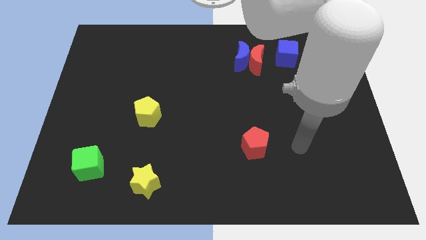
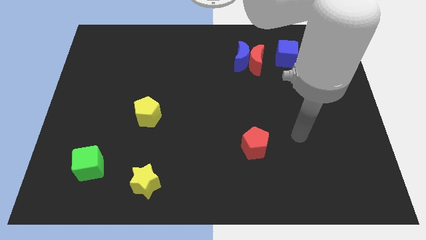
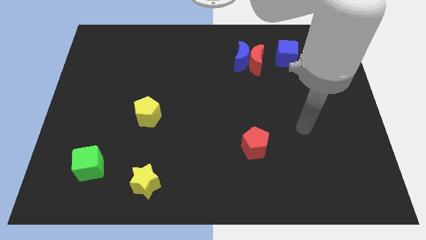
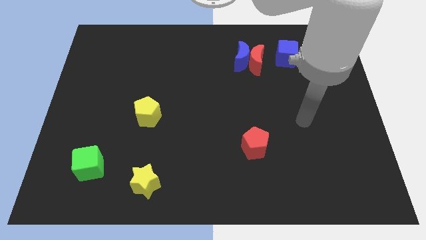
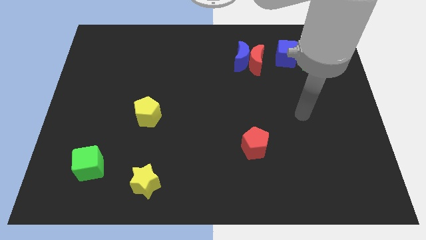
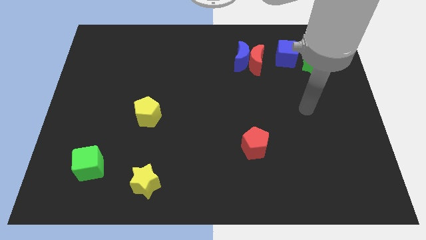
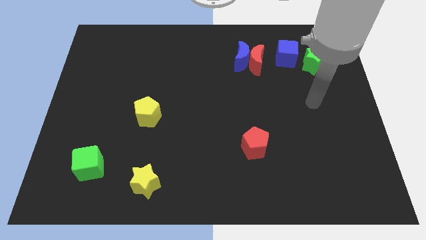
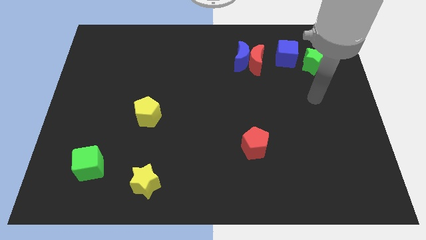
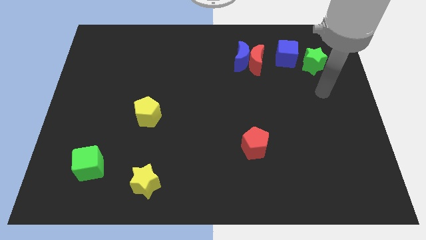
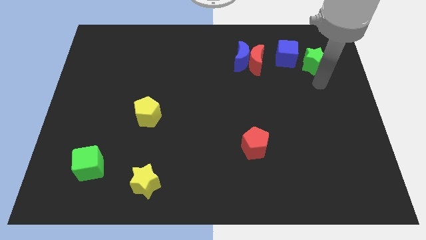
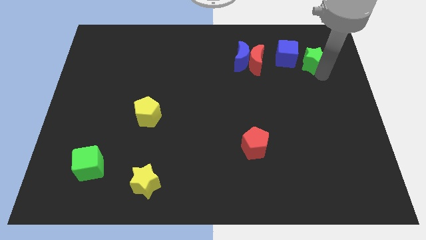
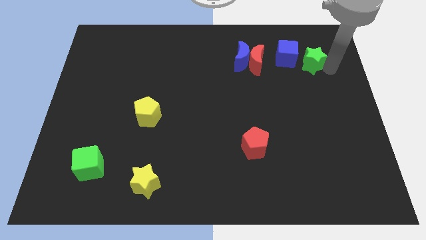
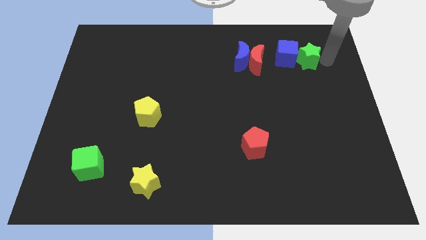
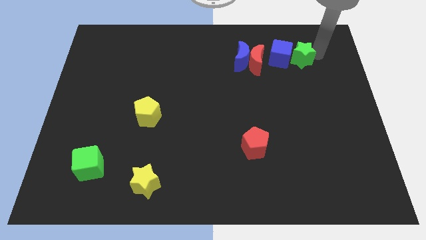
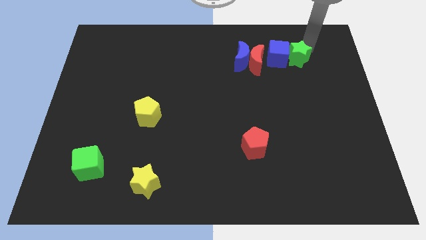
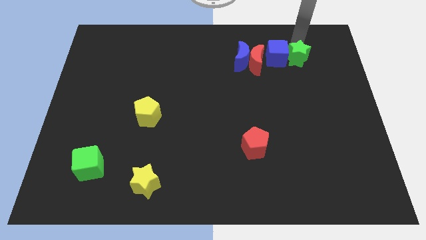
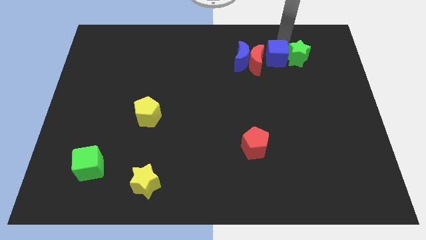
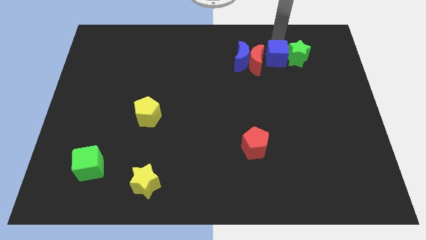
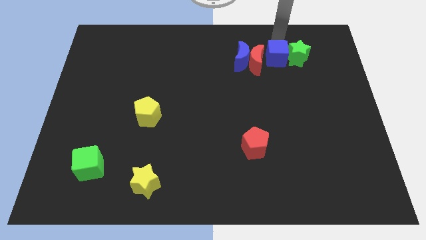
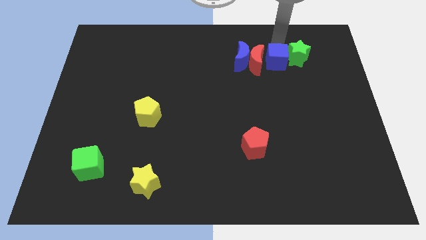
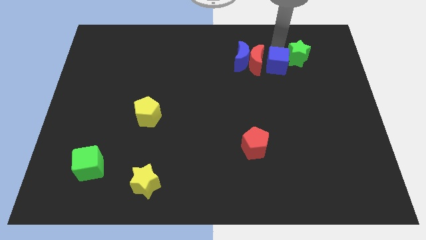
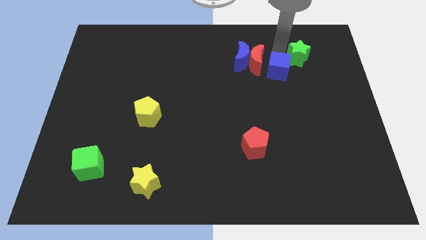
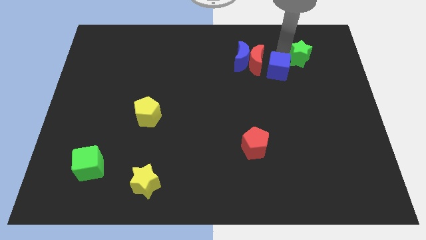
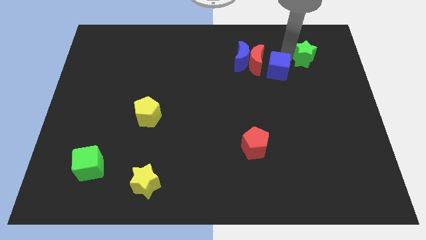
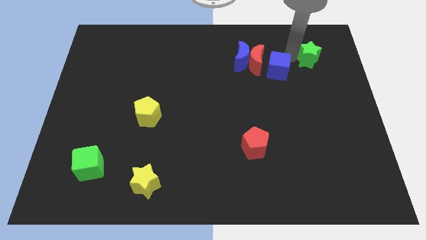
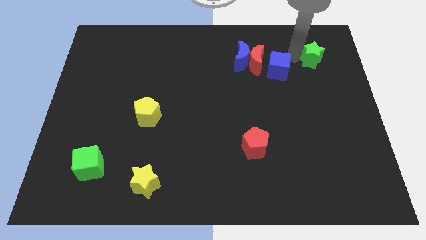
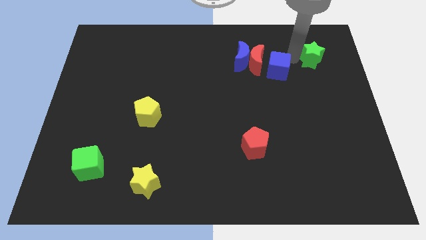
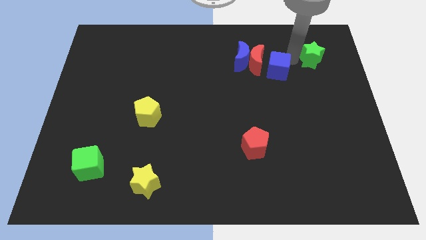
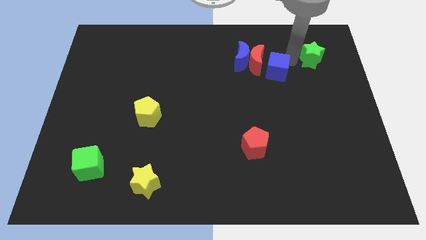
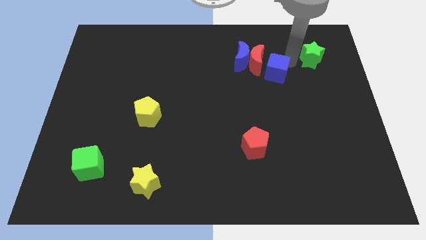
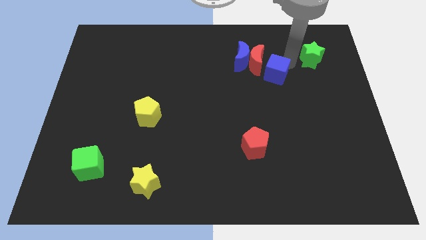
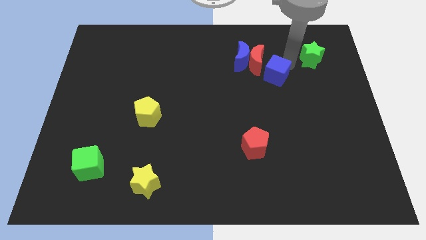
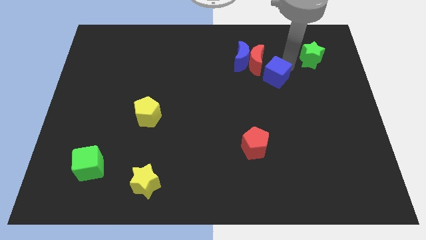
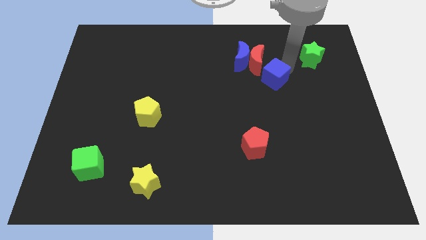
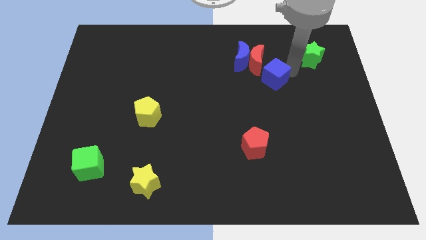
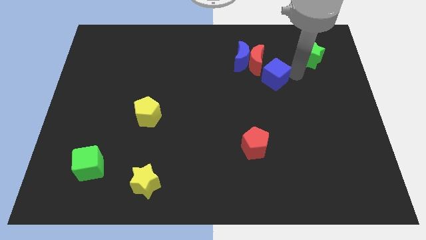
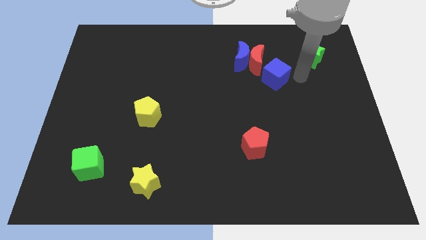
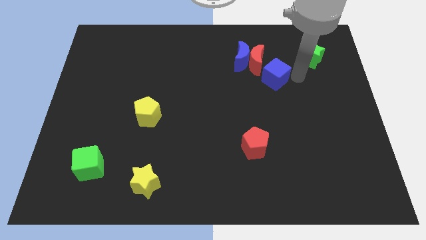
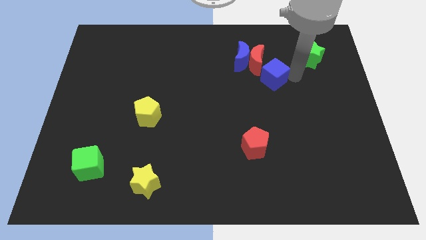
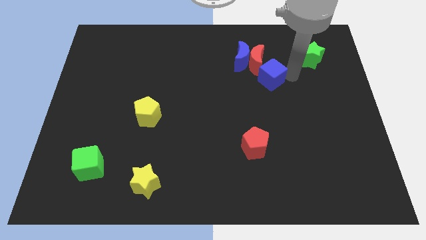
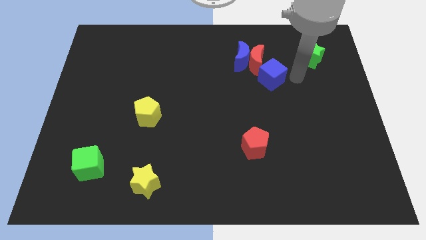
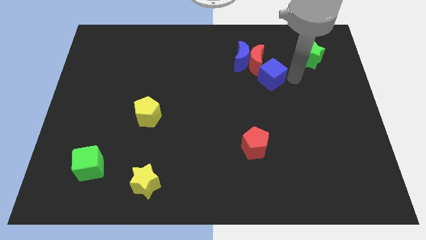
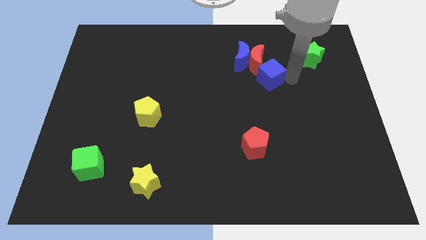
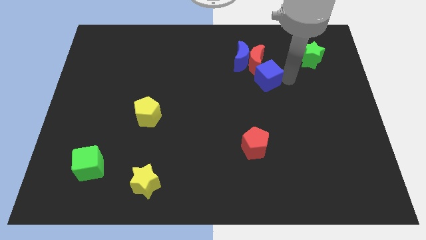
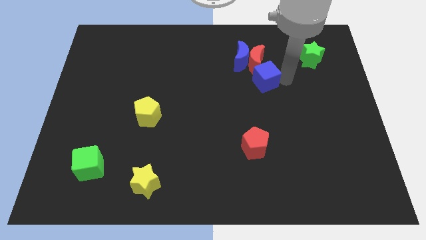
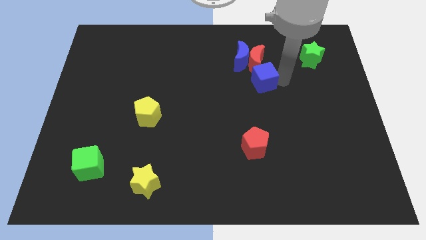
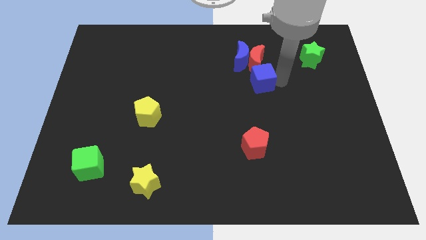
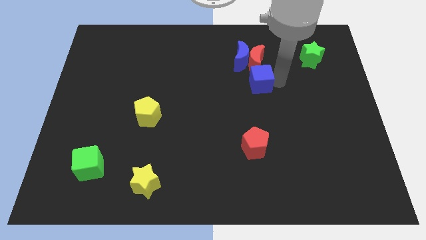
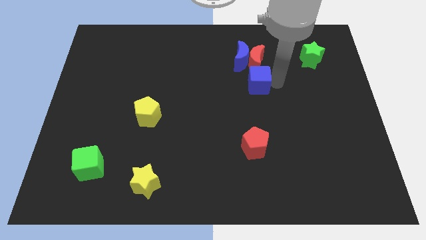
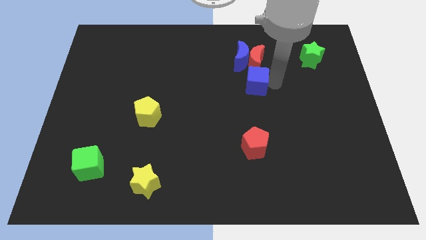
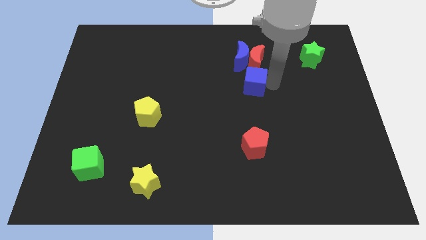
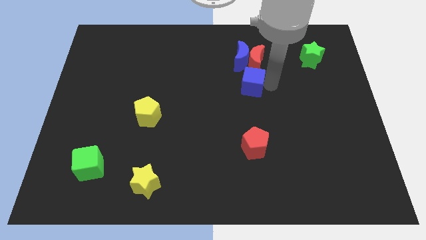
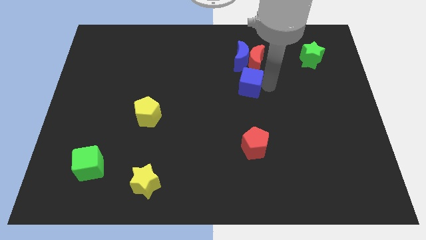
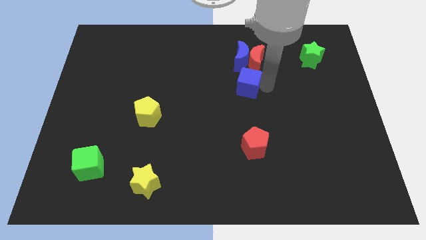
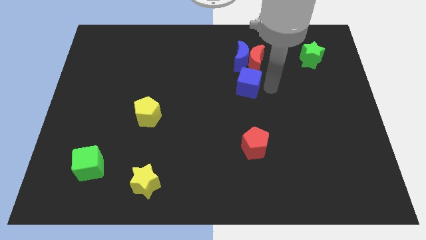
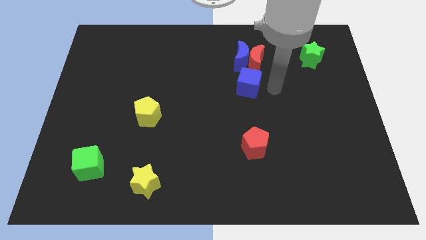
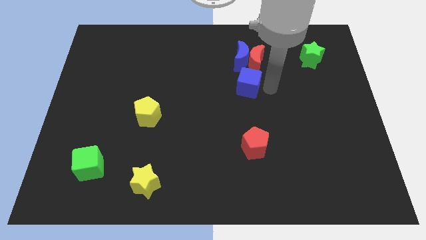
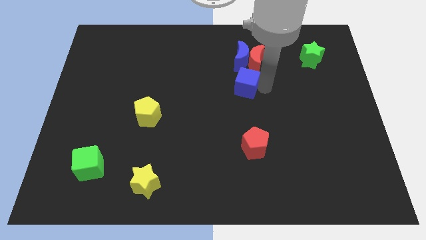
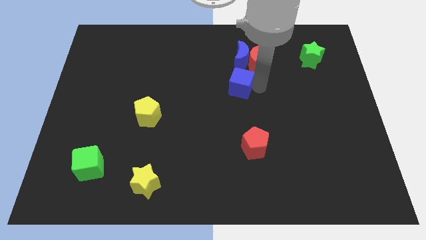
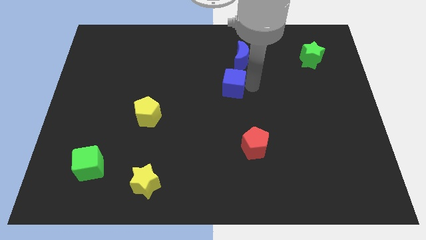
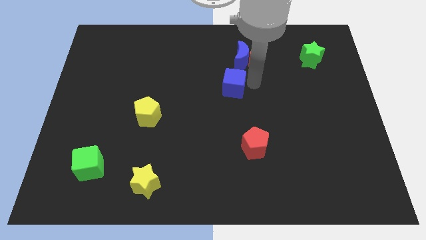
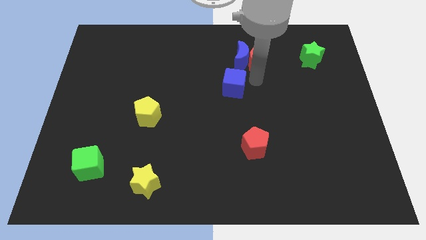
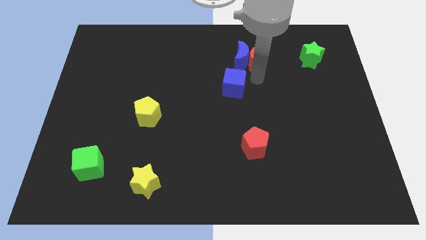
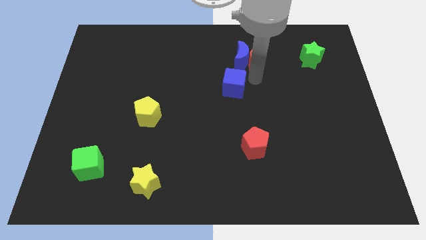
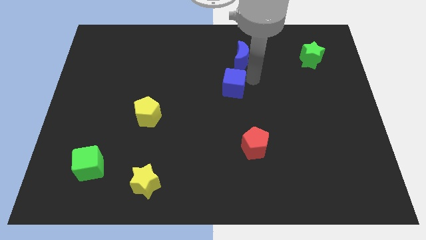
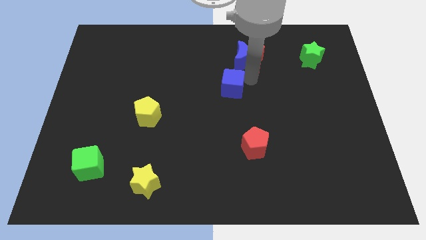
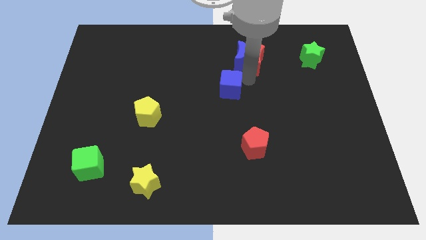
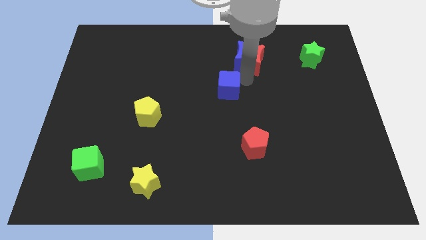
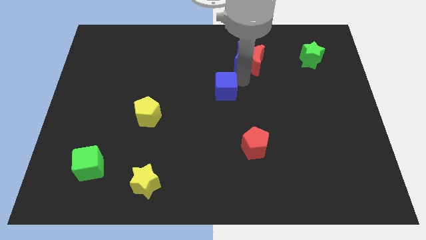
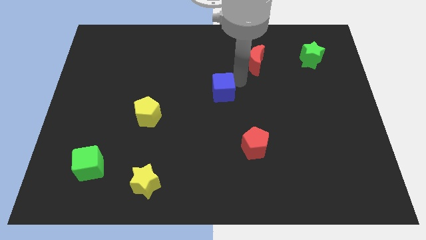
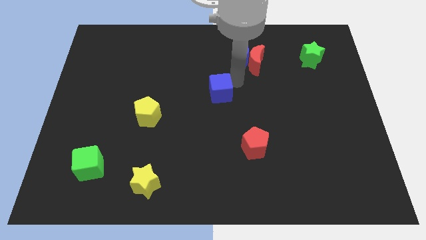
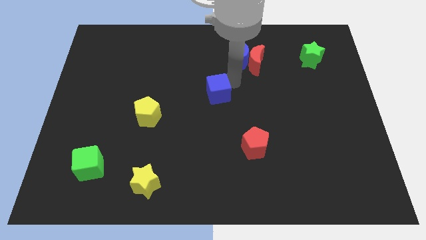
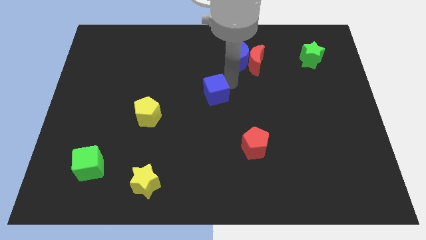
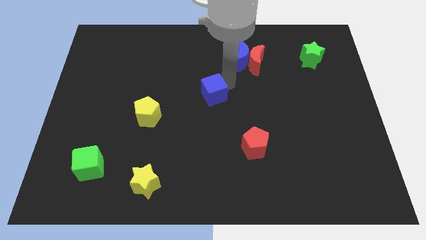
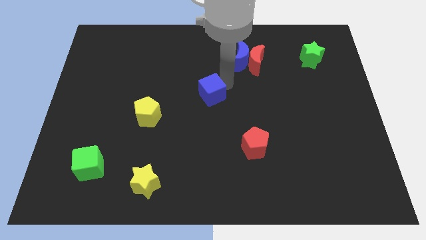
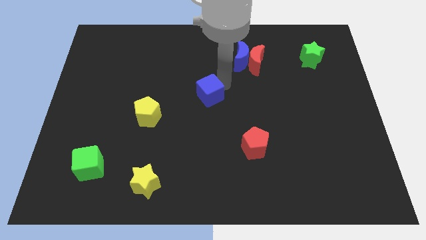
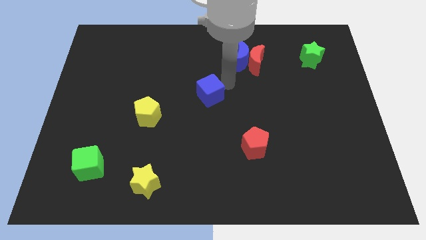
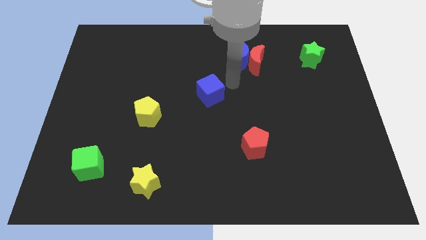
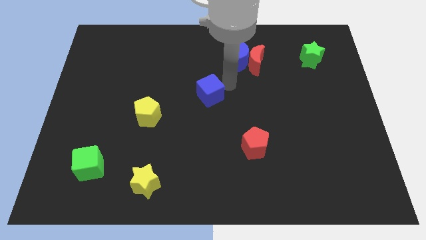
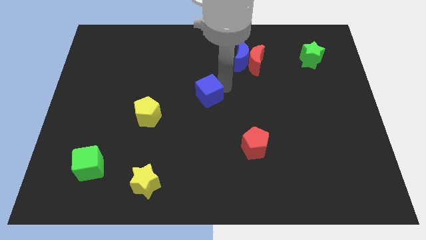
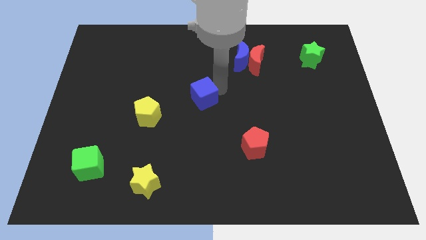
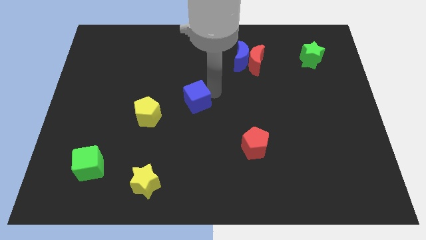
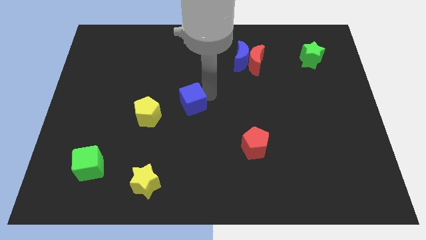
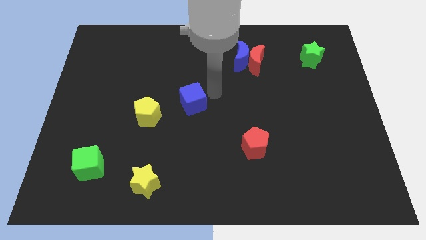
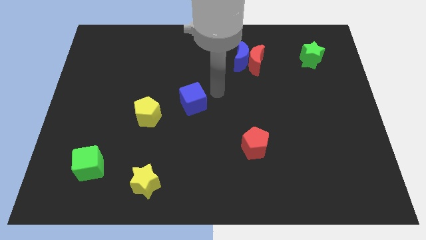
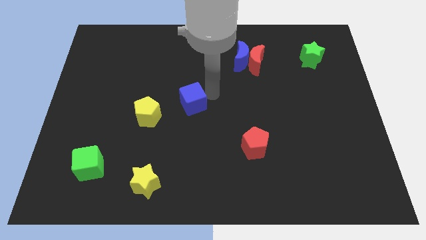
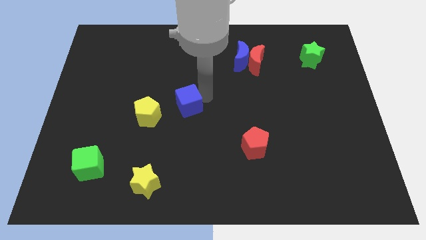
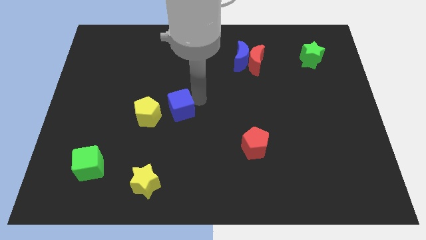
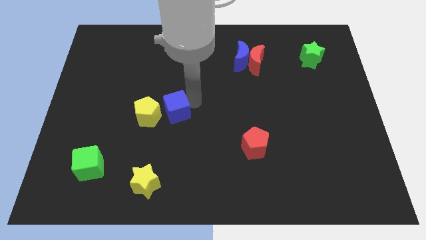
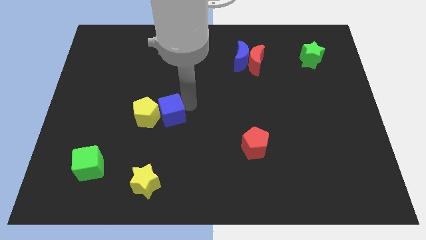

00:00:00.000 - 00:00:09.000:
slide the blue cube next to the yellow pentagon
